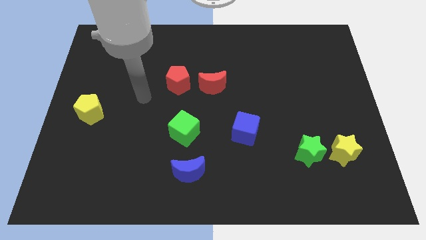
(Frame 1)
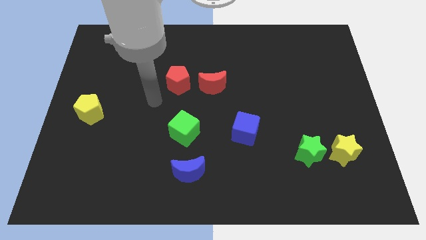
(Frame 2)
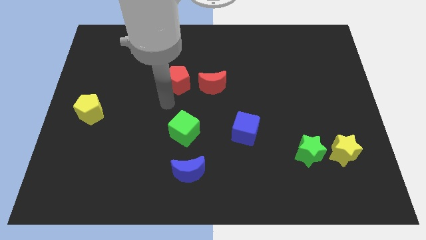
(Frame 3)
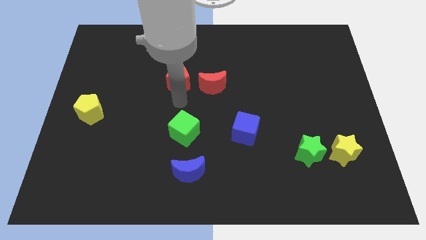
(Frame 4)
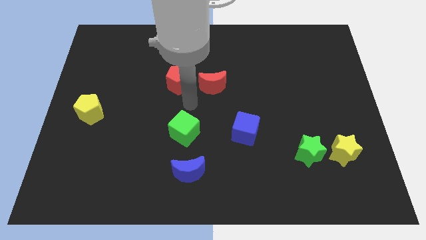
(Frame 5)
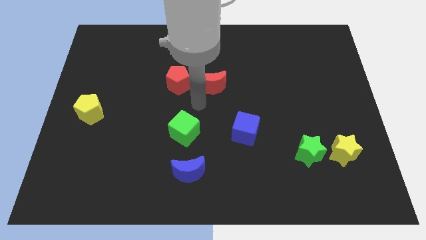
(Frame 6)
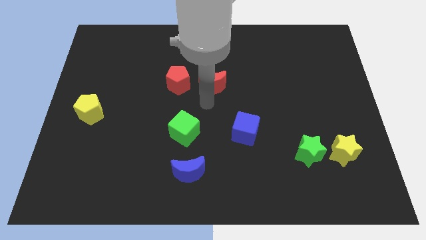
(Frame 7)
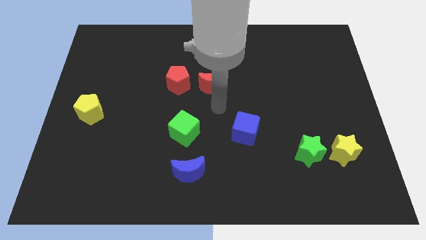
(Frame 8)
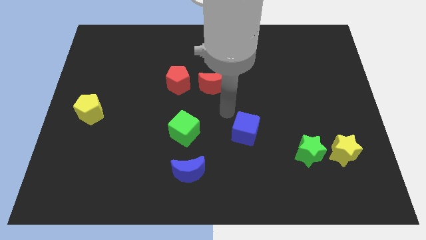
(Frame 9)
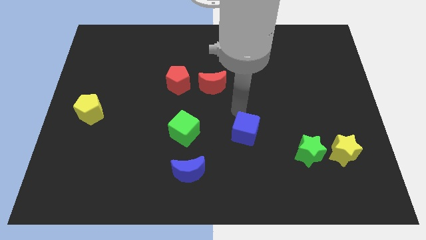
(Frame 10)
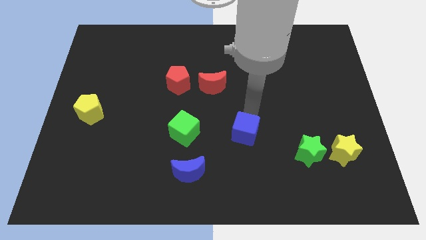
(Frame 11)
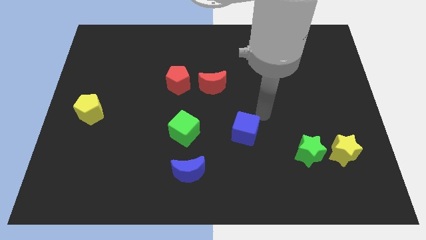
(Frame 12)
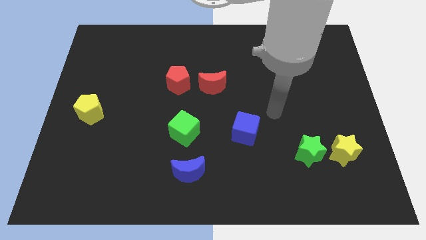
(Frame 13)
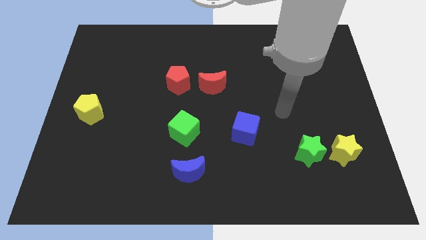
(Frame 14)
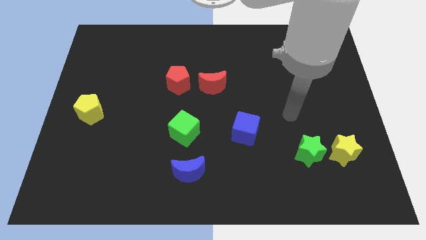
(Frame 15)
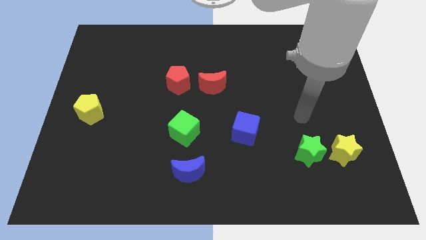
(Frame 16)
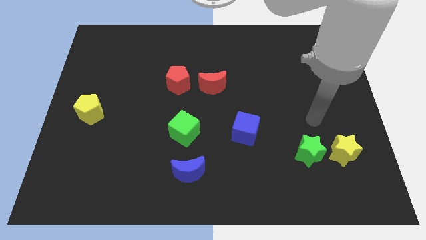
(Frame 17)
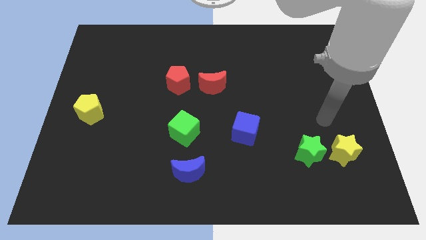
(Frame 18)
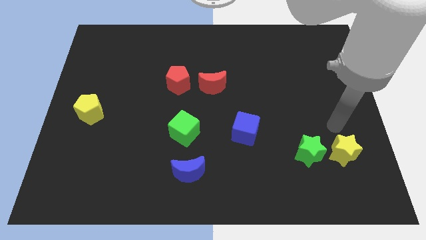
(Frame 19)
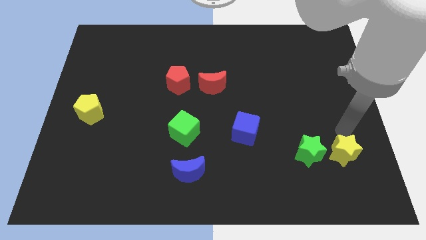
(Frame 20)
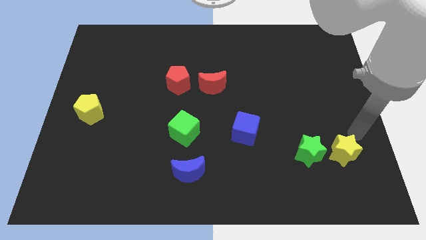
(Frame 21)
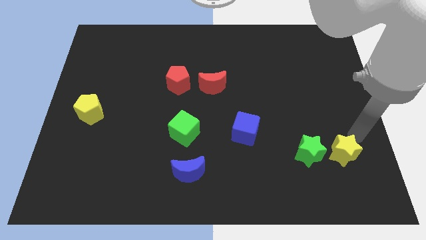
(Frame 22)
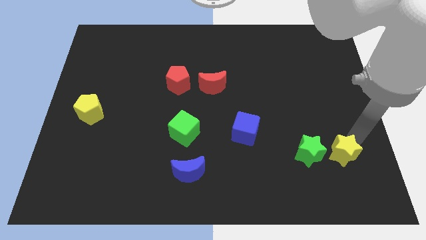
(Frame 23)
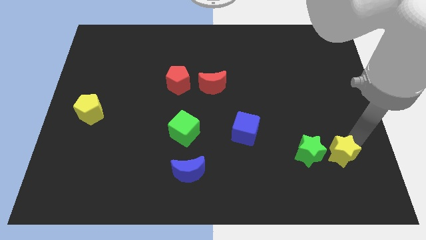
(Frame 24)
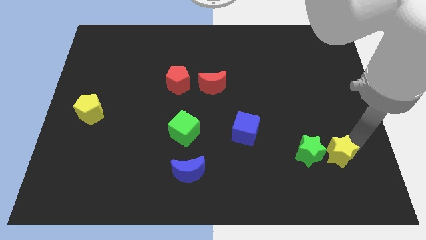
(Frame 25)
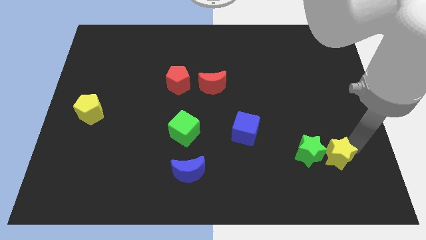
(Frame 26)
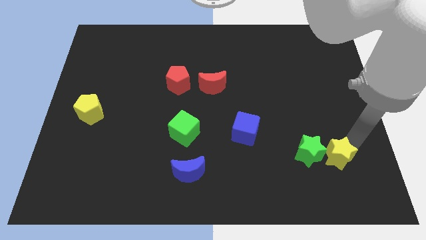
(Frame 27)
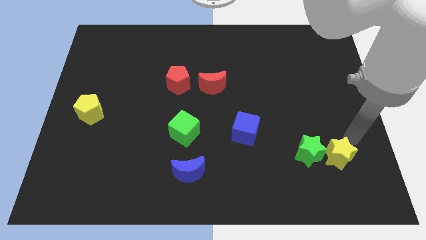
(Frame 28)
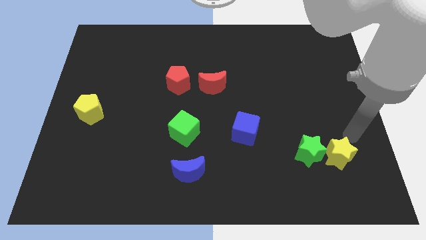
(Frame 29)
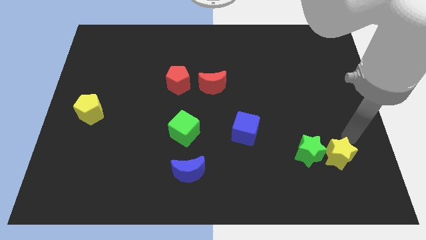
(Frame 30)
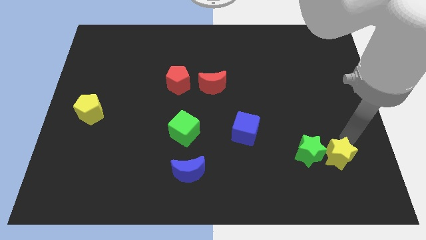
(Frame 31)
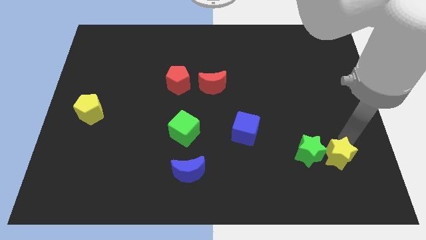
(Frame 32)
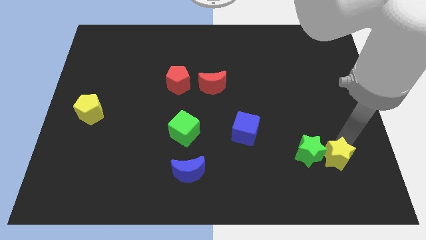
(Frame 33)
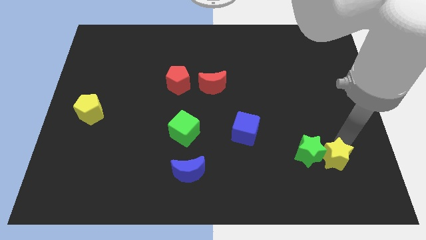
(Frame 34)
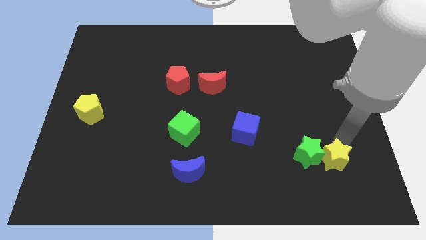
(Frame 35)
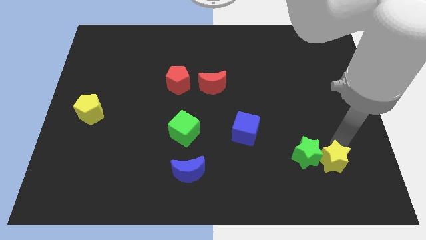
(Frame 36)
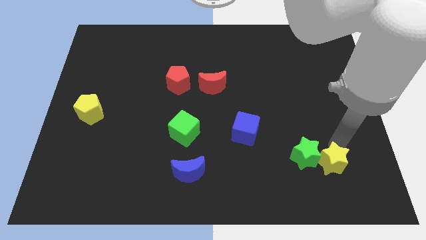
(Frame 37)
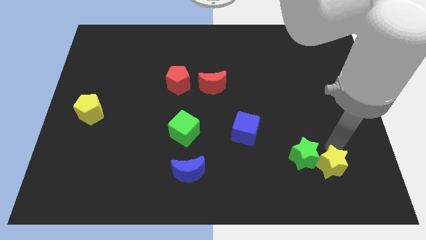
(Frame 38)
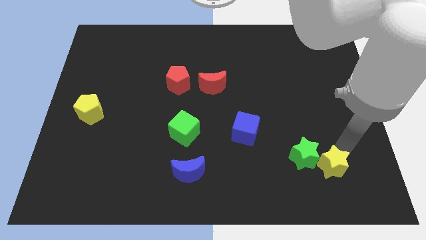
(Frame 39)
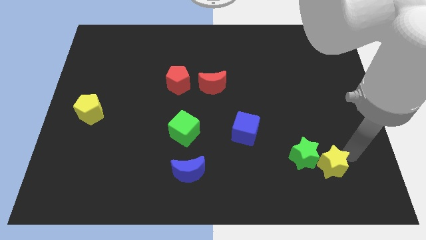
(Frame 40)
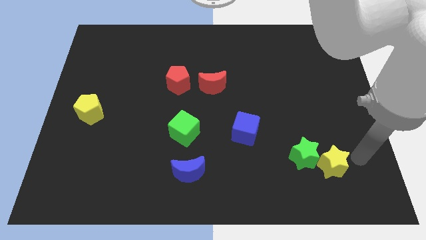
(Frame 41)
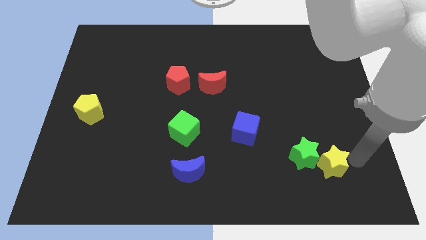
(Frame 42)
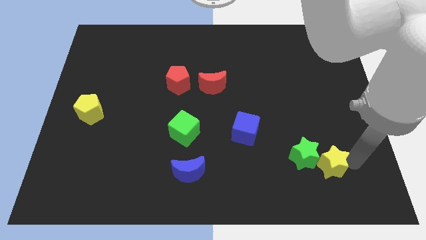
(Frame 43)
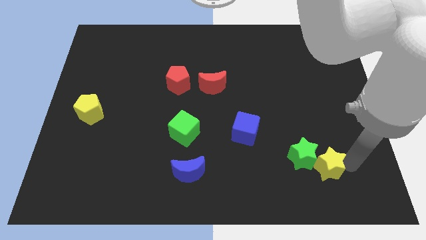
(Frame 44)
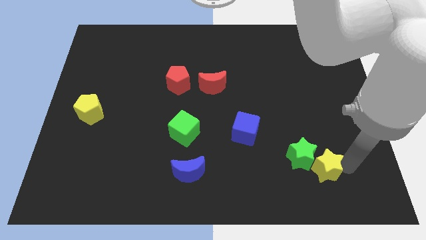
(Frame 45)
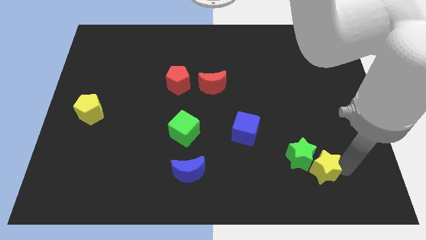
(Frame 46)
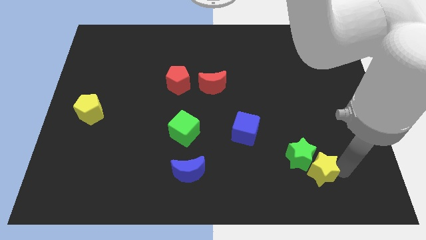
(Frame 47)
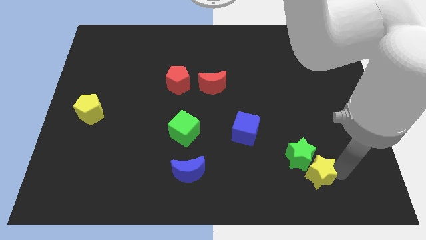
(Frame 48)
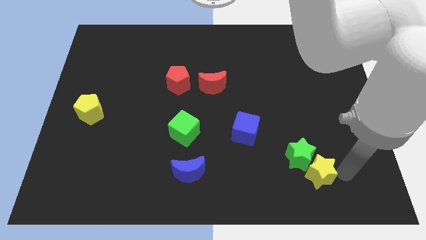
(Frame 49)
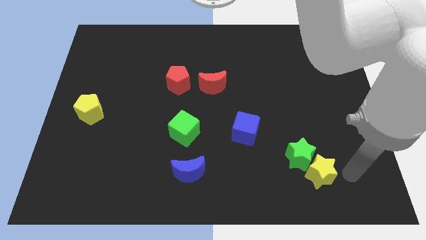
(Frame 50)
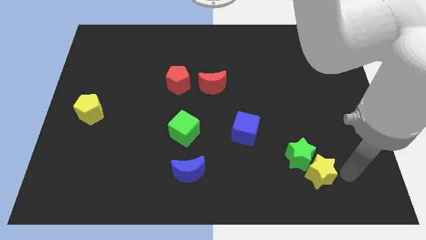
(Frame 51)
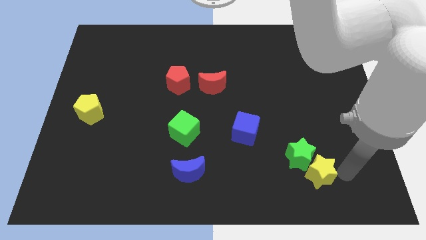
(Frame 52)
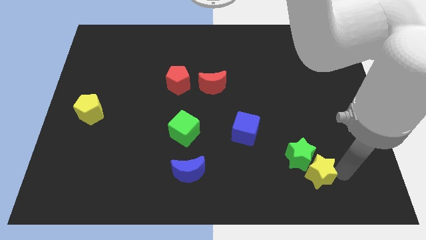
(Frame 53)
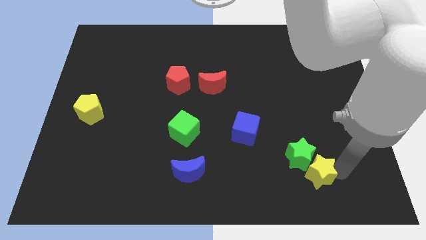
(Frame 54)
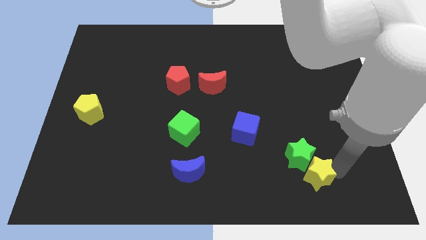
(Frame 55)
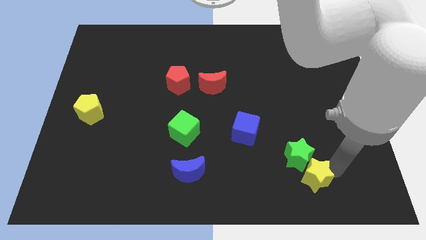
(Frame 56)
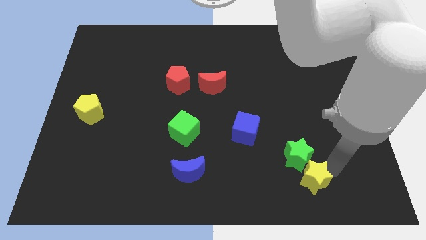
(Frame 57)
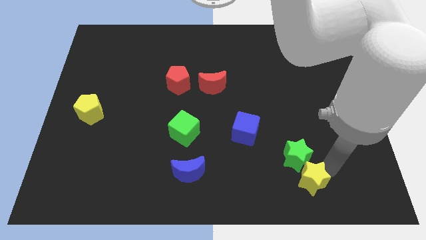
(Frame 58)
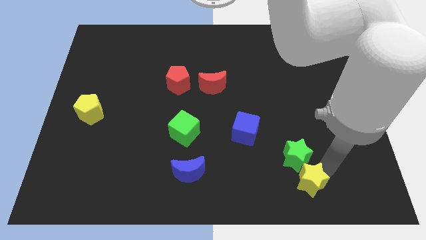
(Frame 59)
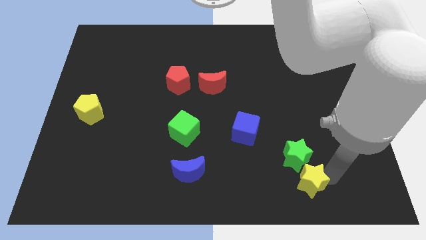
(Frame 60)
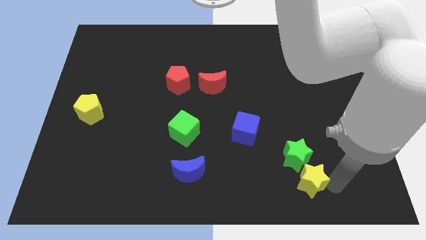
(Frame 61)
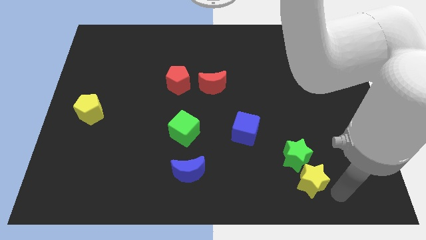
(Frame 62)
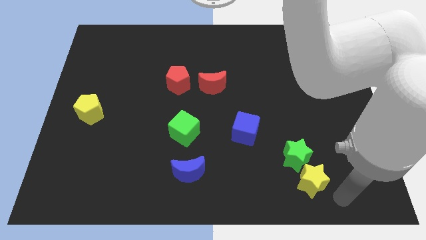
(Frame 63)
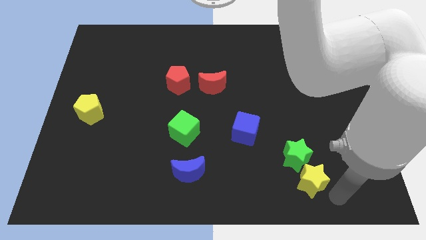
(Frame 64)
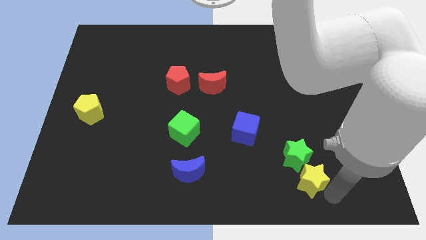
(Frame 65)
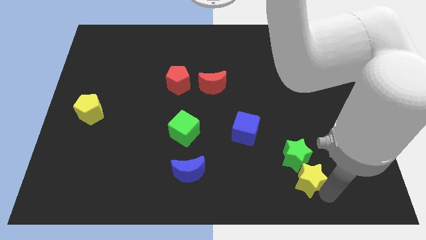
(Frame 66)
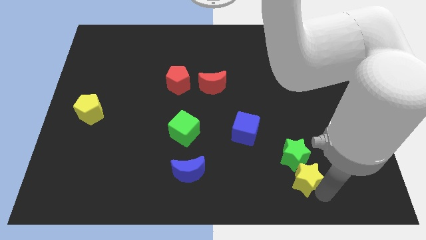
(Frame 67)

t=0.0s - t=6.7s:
slide the yellow star left slightly

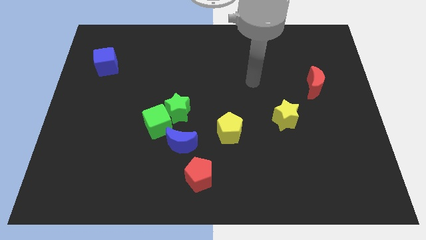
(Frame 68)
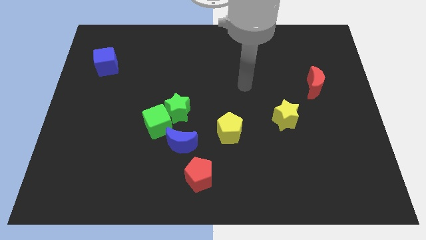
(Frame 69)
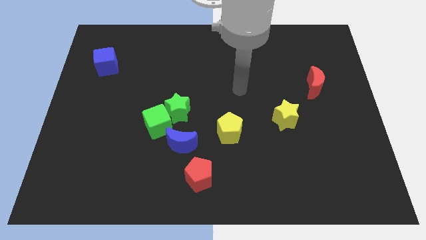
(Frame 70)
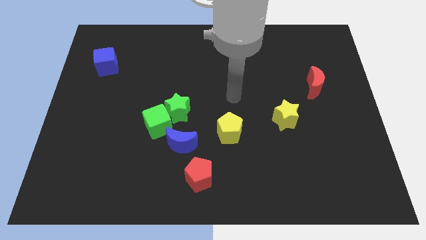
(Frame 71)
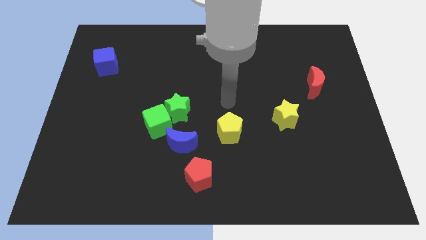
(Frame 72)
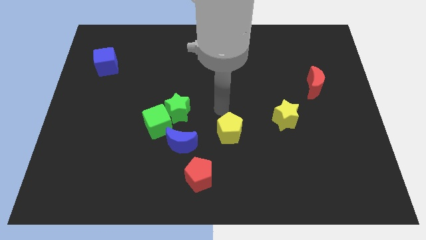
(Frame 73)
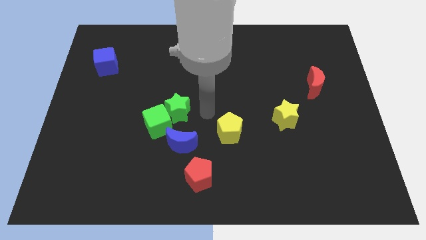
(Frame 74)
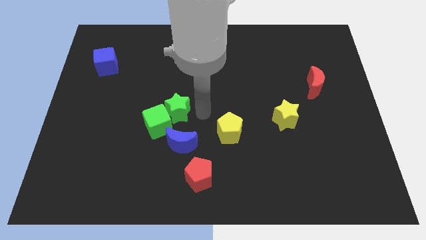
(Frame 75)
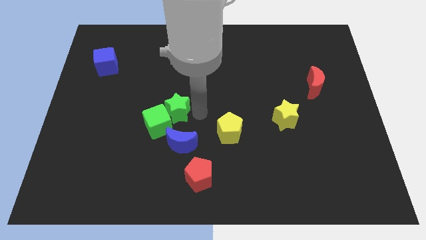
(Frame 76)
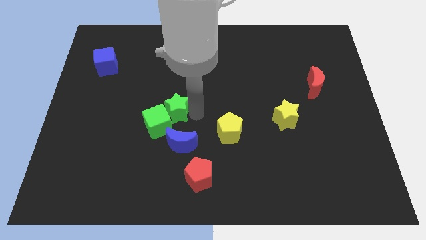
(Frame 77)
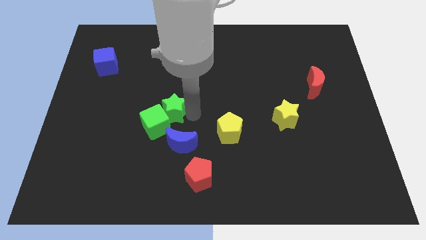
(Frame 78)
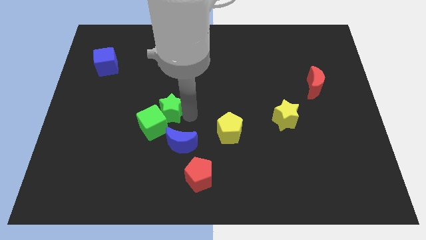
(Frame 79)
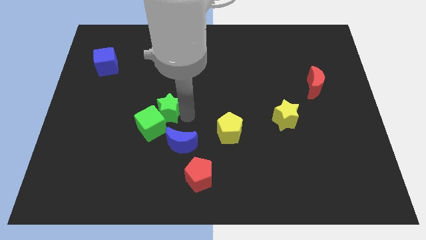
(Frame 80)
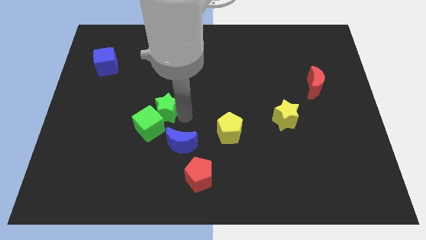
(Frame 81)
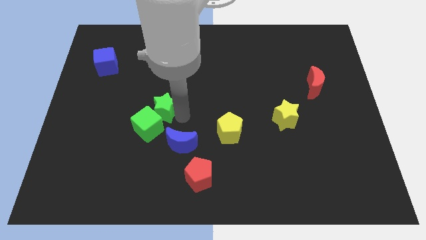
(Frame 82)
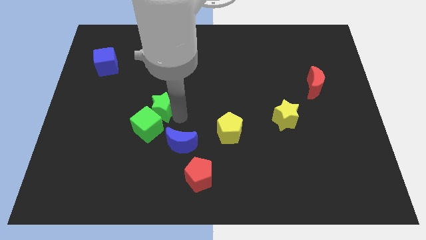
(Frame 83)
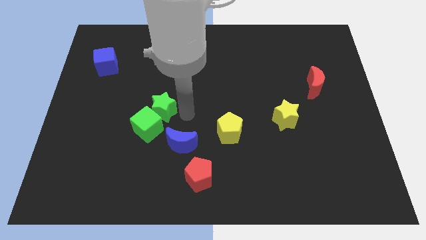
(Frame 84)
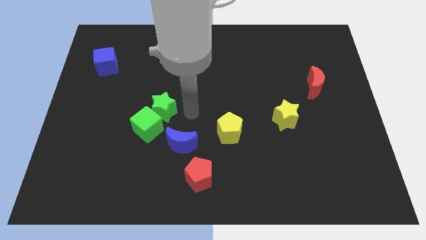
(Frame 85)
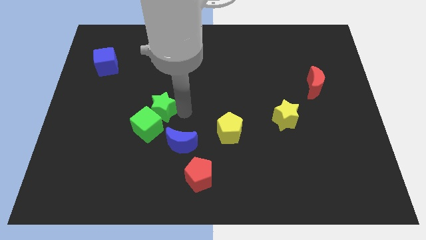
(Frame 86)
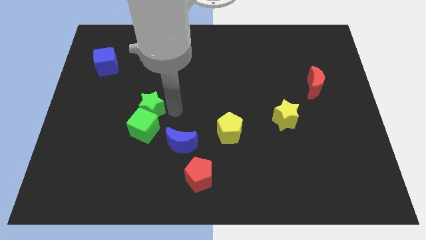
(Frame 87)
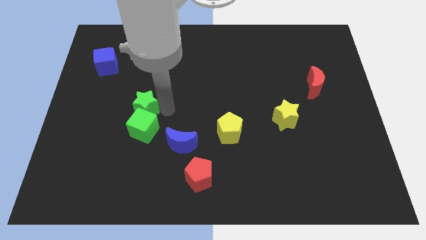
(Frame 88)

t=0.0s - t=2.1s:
slide the green star left a bit
